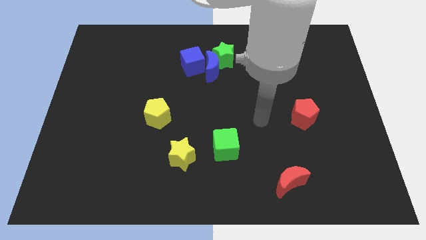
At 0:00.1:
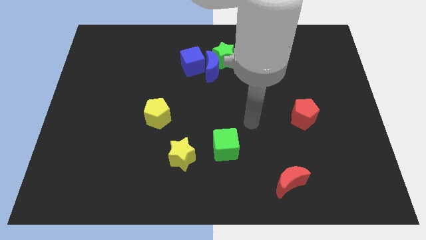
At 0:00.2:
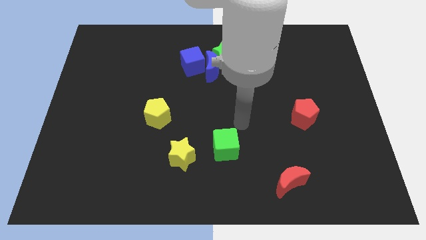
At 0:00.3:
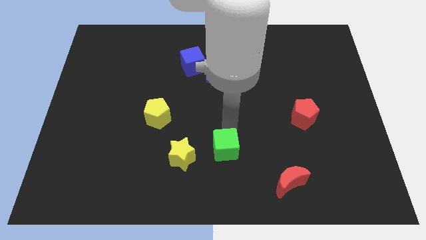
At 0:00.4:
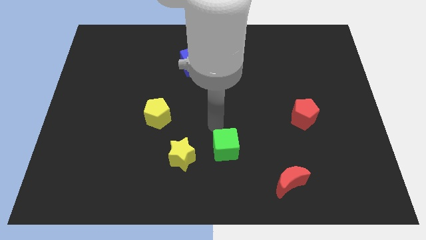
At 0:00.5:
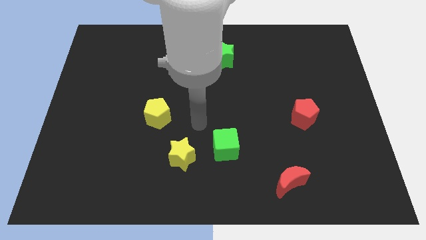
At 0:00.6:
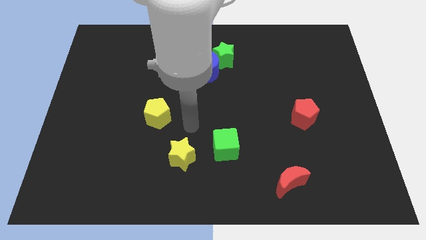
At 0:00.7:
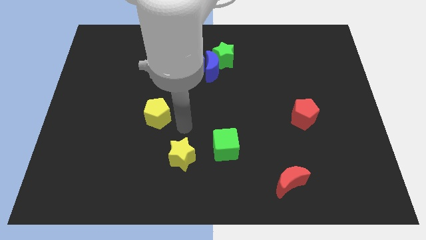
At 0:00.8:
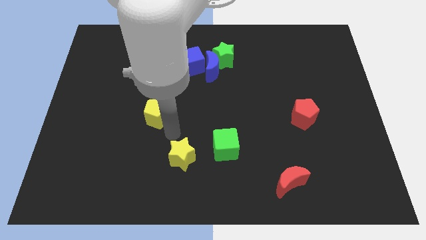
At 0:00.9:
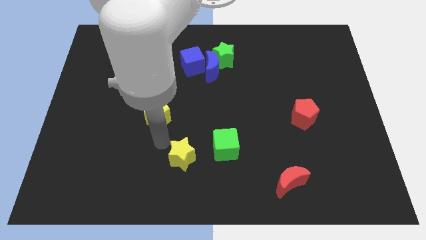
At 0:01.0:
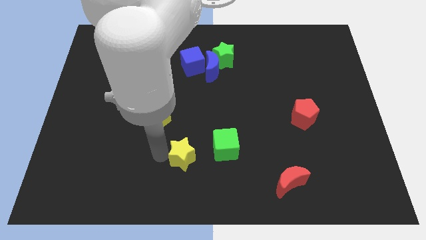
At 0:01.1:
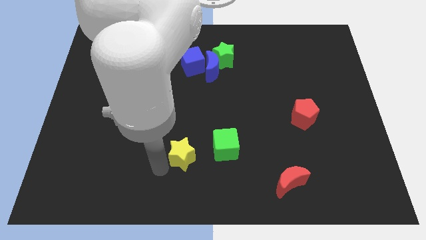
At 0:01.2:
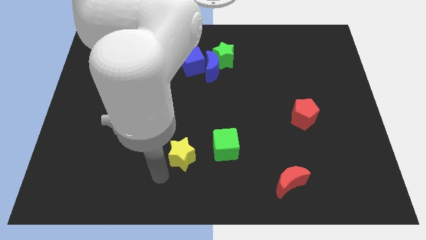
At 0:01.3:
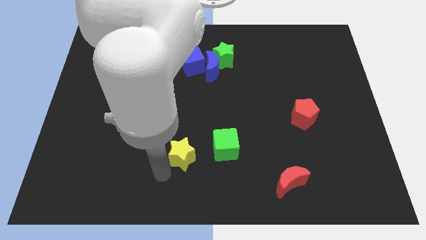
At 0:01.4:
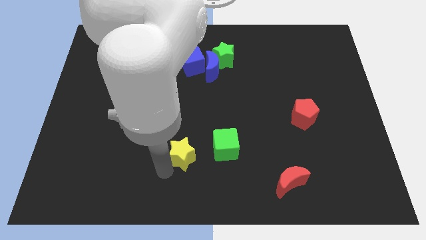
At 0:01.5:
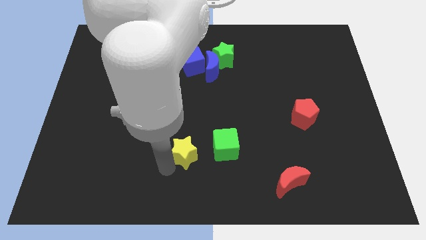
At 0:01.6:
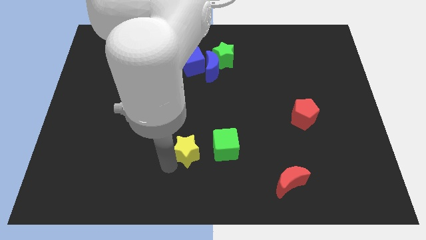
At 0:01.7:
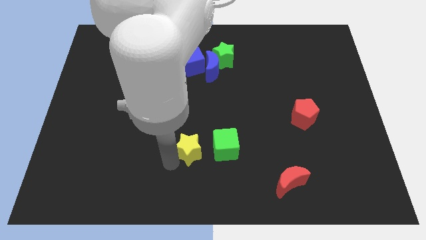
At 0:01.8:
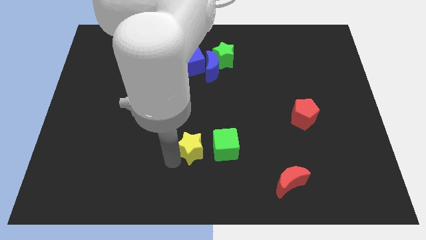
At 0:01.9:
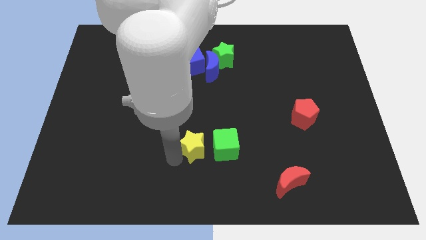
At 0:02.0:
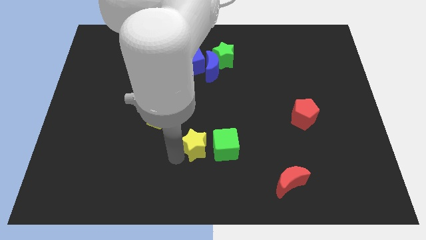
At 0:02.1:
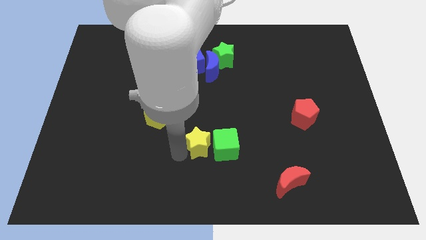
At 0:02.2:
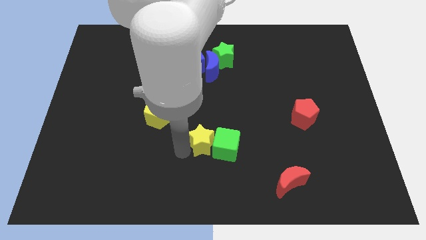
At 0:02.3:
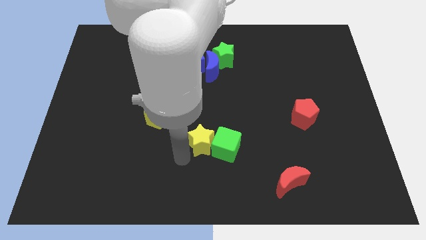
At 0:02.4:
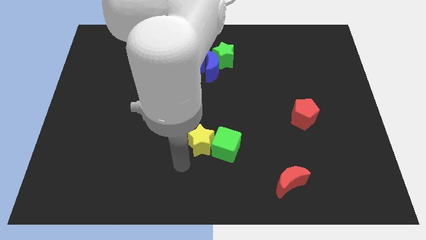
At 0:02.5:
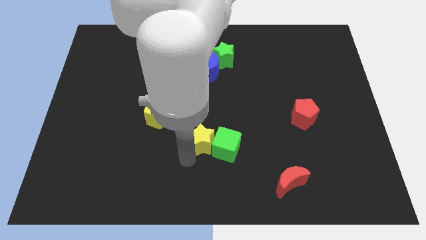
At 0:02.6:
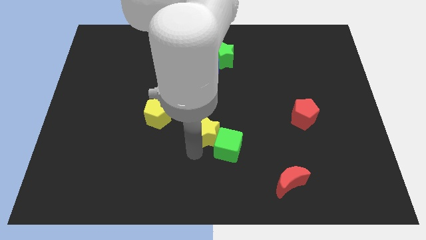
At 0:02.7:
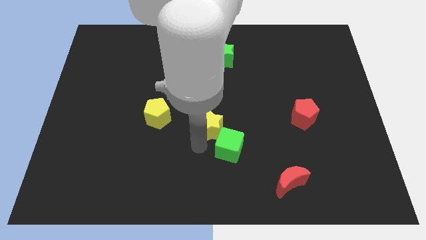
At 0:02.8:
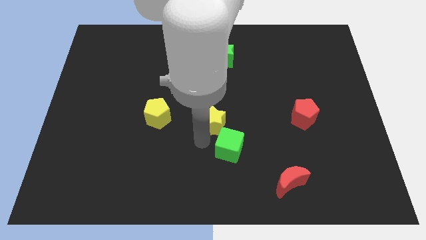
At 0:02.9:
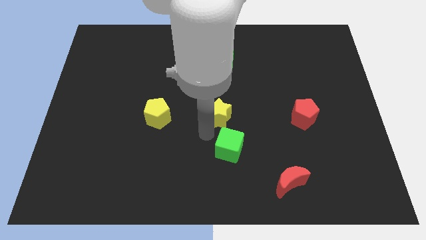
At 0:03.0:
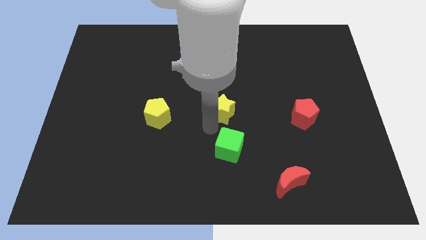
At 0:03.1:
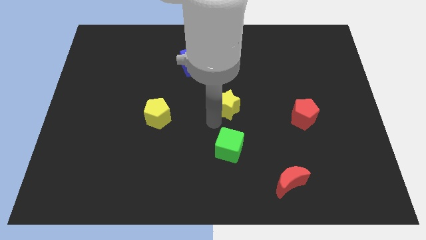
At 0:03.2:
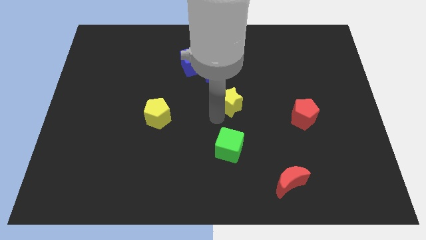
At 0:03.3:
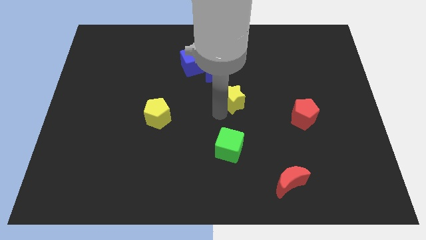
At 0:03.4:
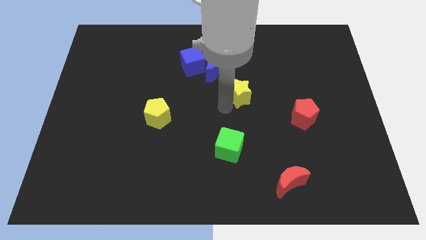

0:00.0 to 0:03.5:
move the yellow star up and right

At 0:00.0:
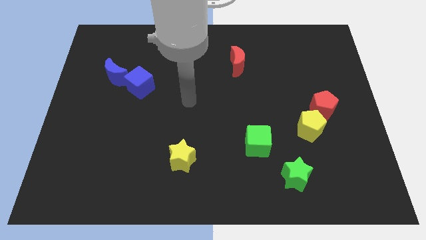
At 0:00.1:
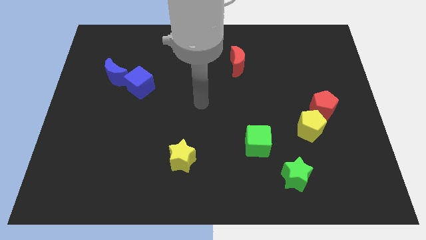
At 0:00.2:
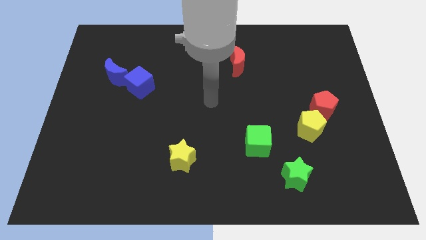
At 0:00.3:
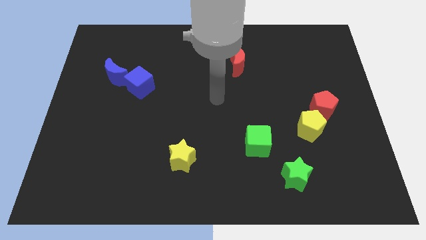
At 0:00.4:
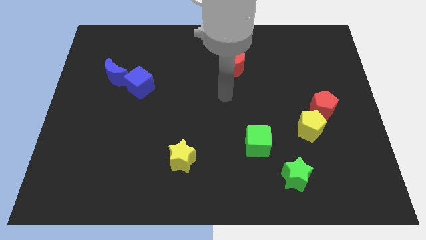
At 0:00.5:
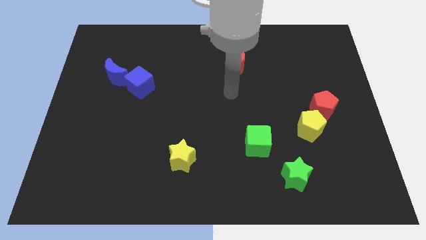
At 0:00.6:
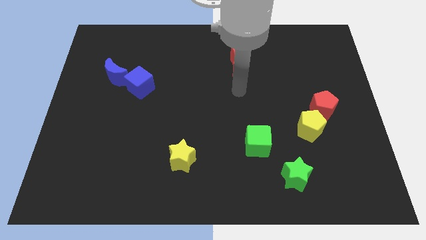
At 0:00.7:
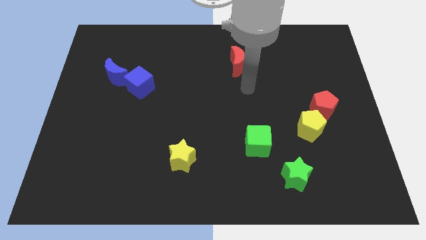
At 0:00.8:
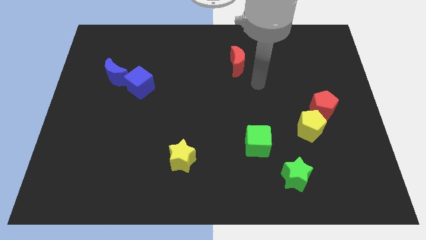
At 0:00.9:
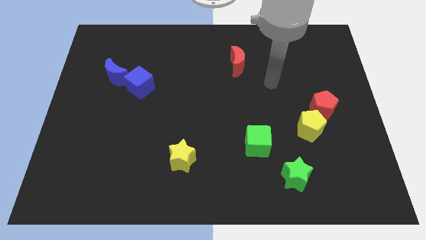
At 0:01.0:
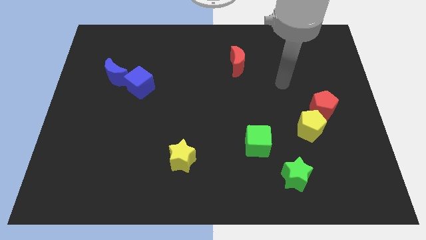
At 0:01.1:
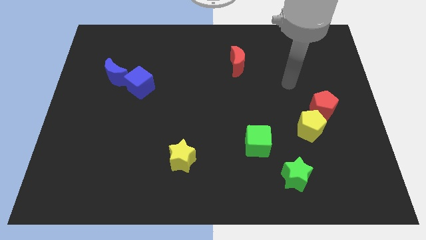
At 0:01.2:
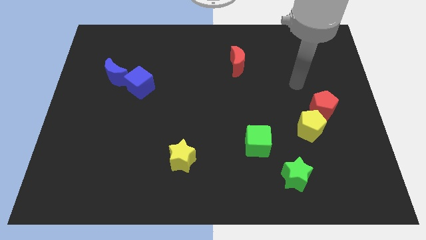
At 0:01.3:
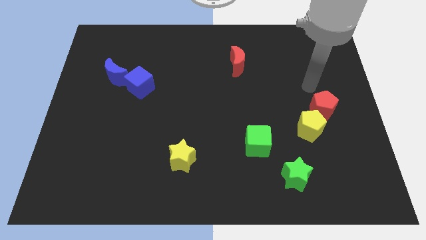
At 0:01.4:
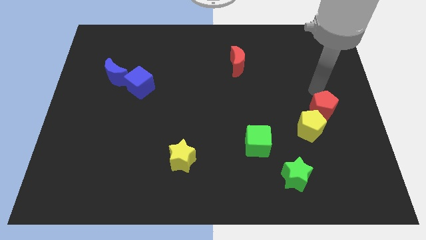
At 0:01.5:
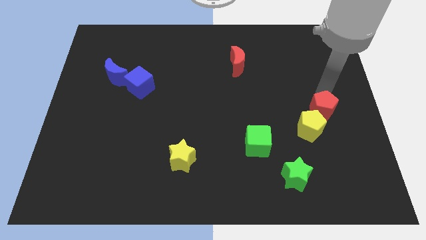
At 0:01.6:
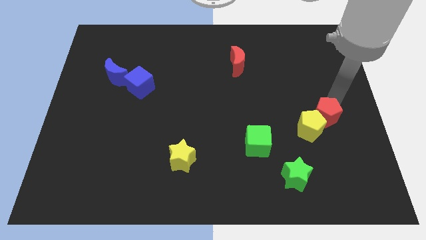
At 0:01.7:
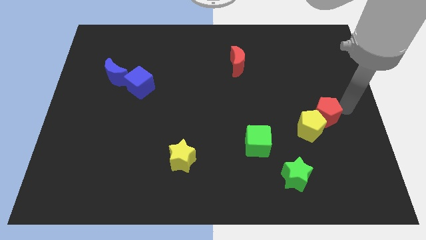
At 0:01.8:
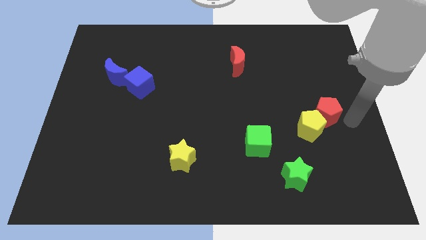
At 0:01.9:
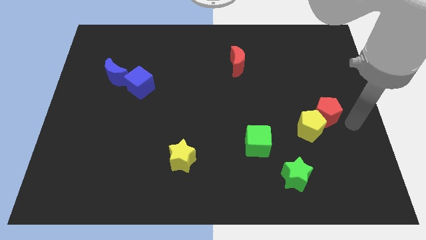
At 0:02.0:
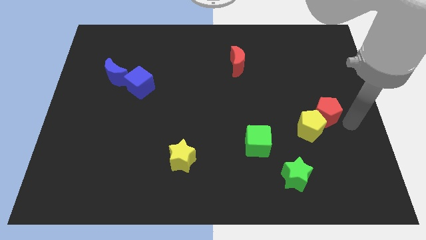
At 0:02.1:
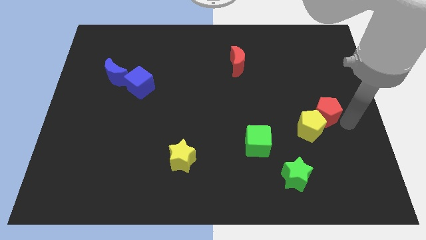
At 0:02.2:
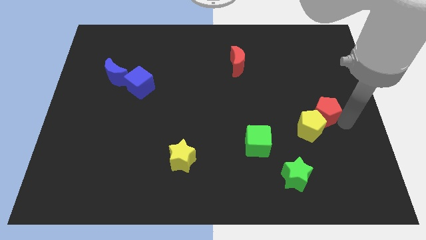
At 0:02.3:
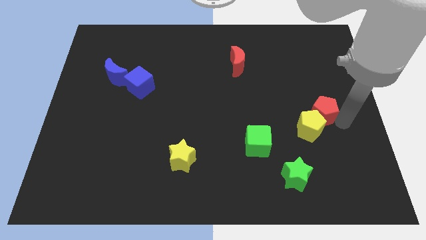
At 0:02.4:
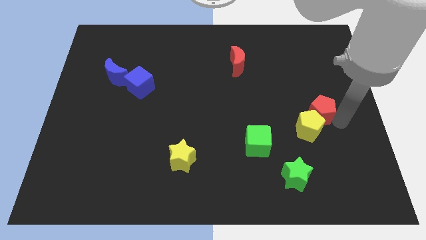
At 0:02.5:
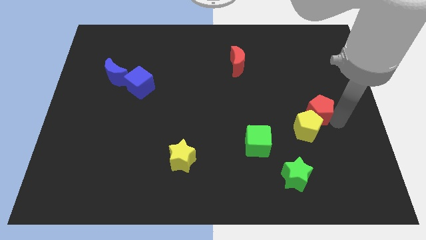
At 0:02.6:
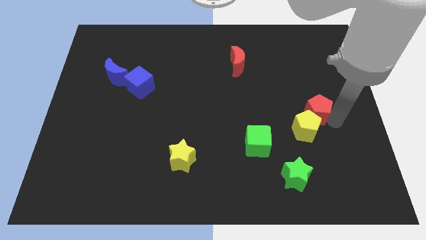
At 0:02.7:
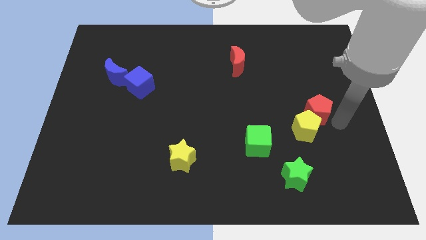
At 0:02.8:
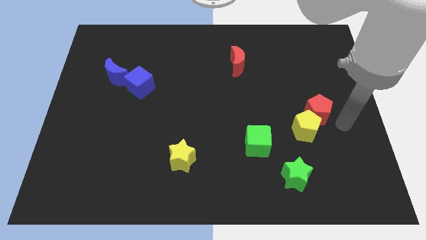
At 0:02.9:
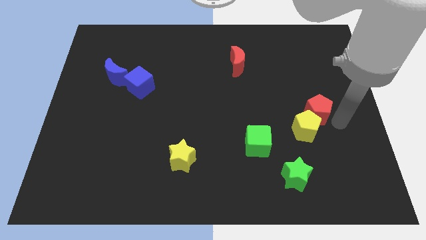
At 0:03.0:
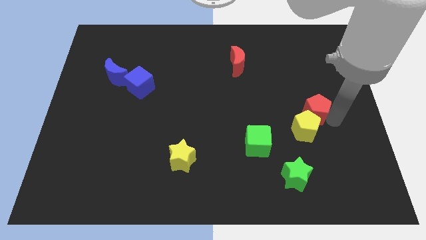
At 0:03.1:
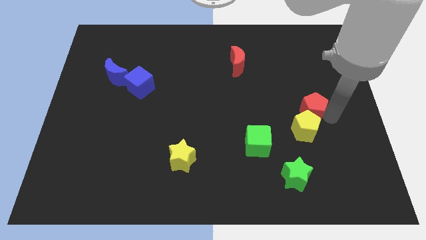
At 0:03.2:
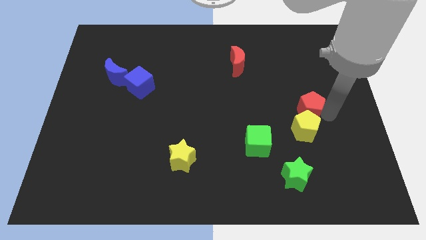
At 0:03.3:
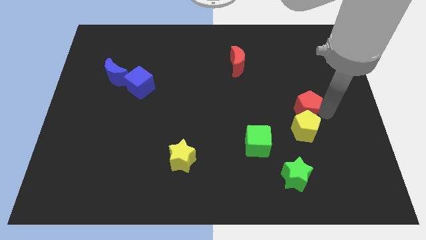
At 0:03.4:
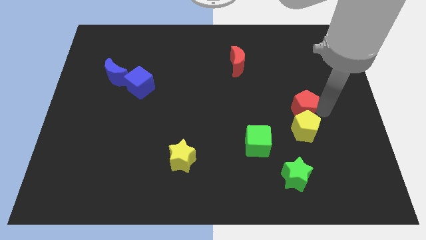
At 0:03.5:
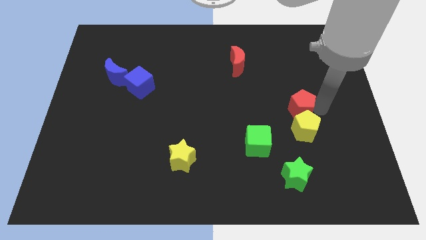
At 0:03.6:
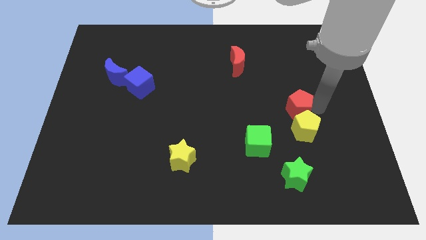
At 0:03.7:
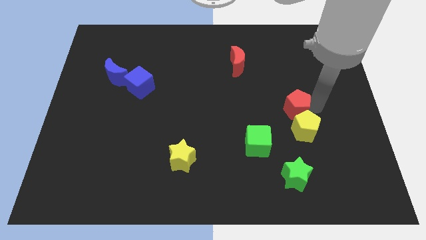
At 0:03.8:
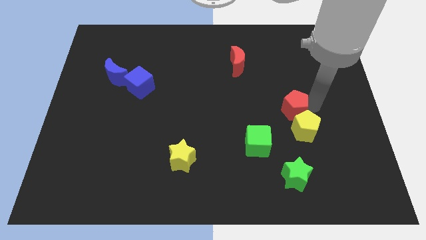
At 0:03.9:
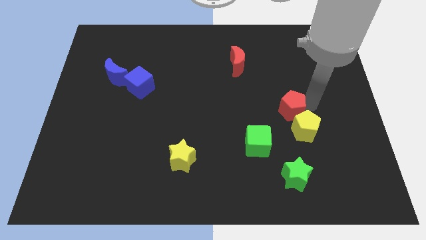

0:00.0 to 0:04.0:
slightly slide the red pentagon to the left

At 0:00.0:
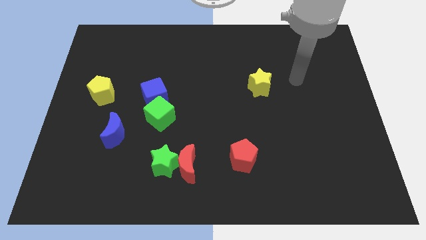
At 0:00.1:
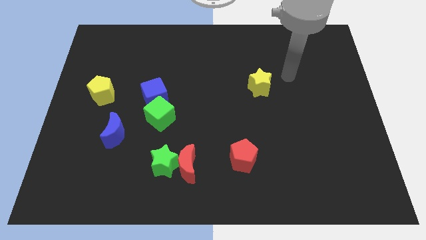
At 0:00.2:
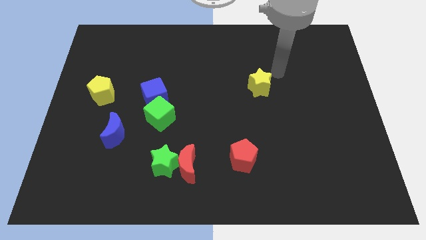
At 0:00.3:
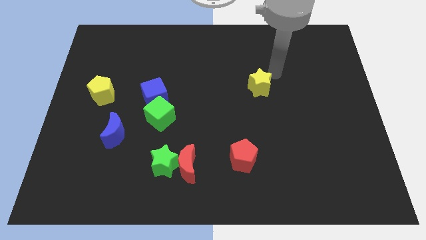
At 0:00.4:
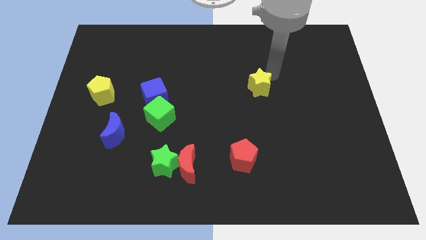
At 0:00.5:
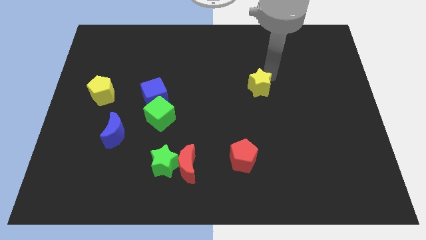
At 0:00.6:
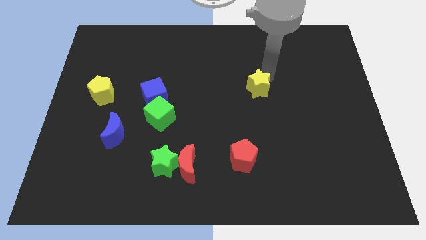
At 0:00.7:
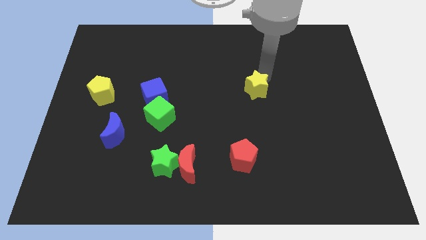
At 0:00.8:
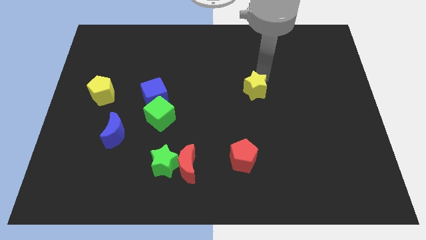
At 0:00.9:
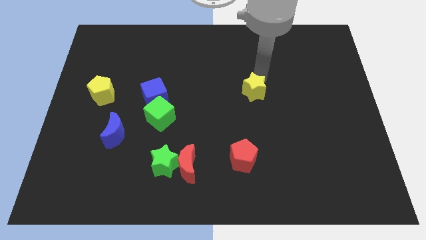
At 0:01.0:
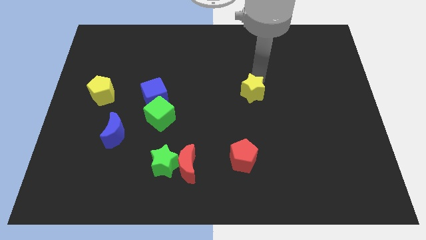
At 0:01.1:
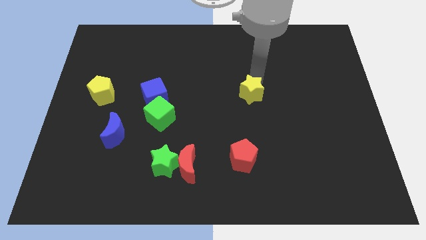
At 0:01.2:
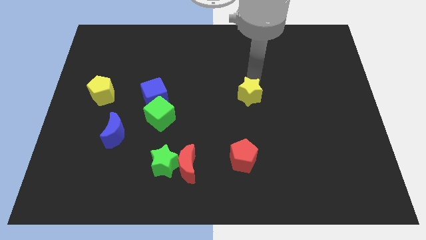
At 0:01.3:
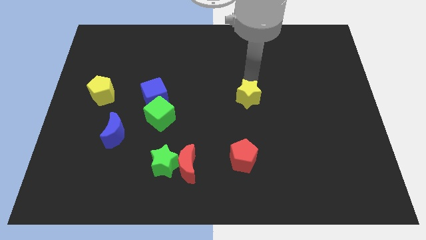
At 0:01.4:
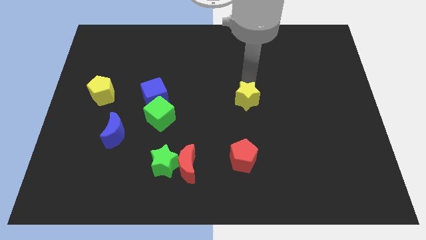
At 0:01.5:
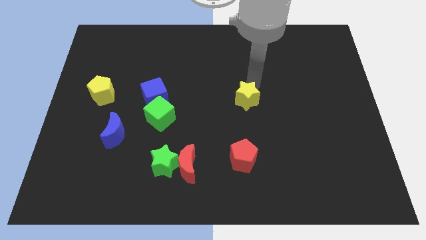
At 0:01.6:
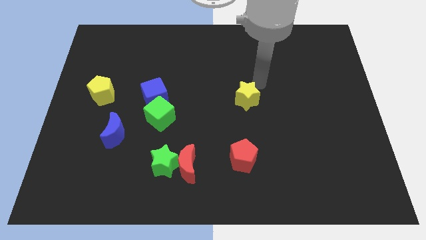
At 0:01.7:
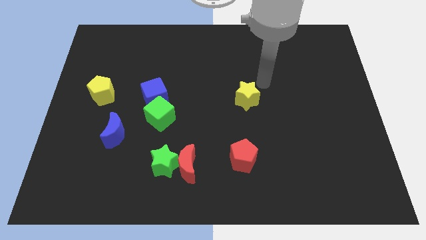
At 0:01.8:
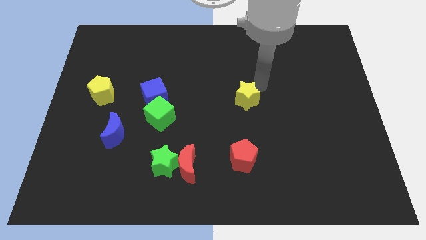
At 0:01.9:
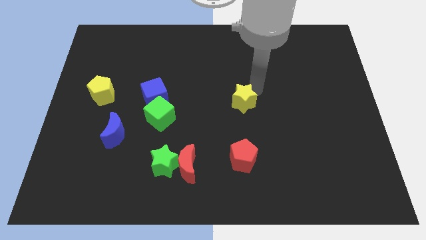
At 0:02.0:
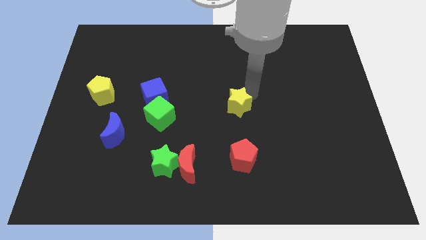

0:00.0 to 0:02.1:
slide the yellow star somewhat downwards and left diagonally
